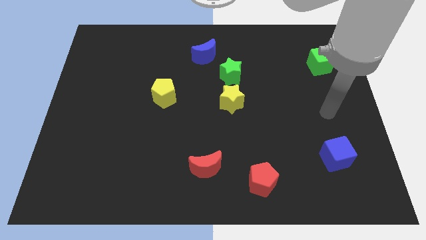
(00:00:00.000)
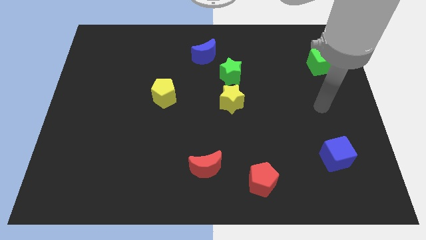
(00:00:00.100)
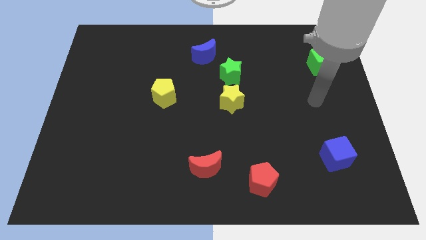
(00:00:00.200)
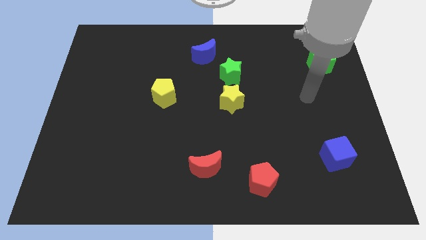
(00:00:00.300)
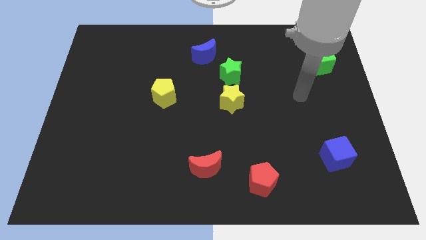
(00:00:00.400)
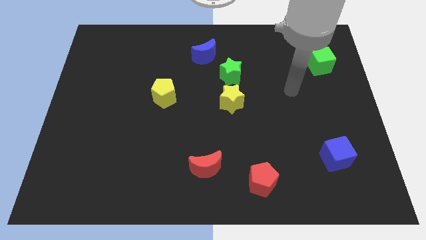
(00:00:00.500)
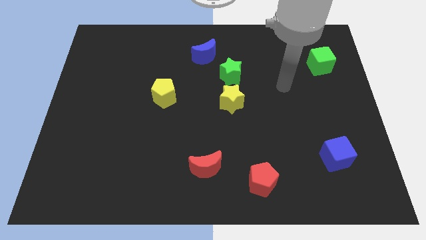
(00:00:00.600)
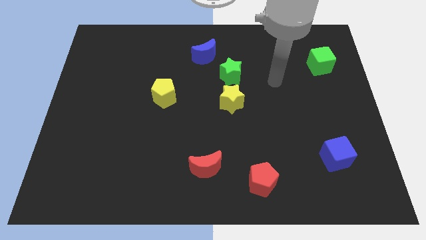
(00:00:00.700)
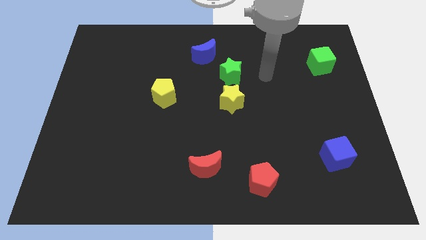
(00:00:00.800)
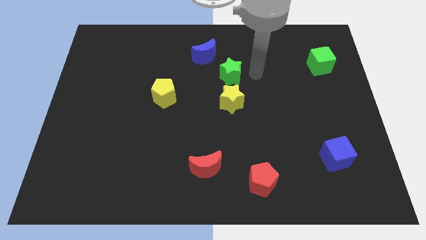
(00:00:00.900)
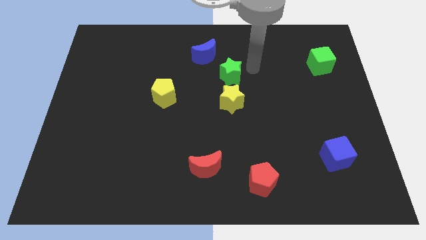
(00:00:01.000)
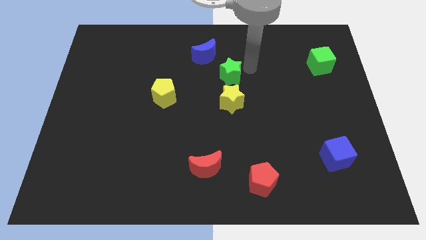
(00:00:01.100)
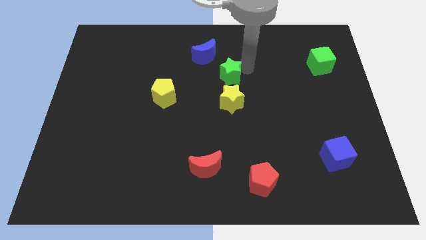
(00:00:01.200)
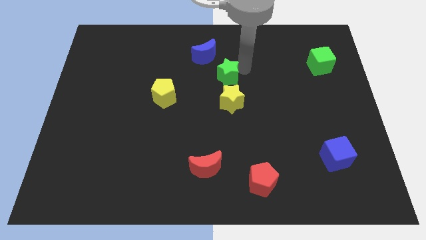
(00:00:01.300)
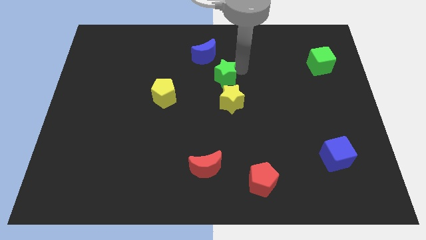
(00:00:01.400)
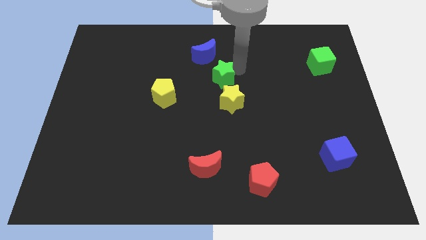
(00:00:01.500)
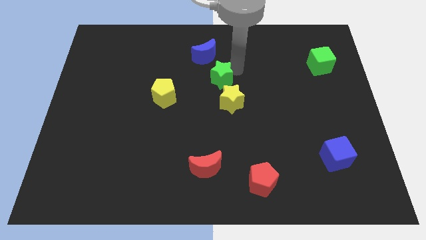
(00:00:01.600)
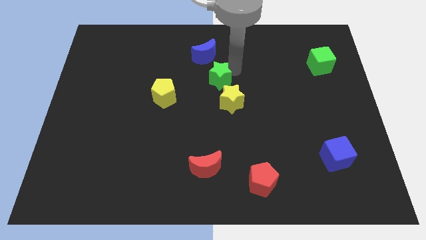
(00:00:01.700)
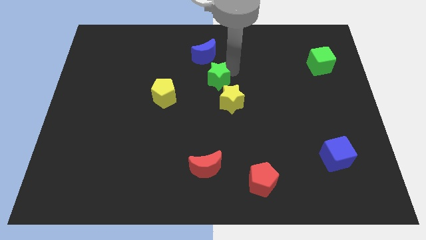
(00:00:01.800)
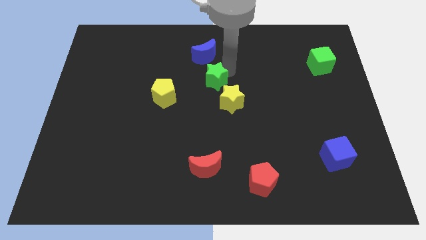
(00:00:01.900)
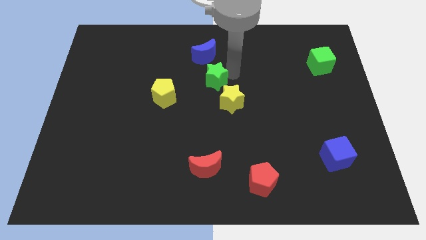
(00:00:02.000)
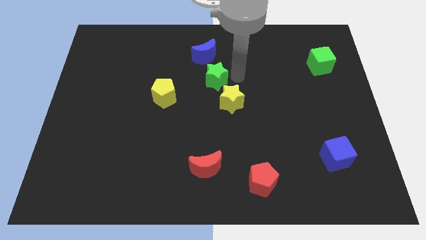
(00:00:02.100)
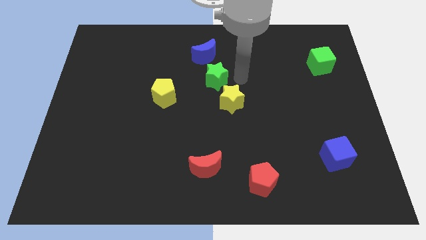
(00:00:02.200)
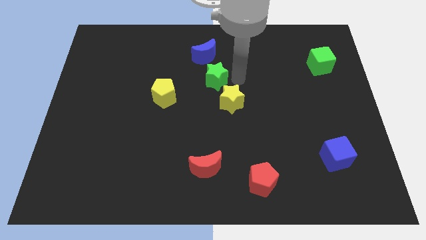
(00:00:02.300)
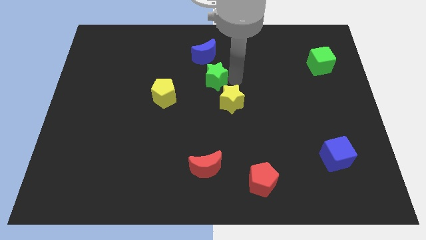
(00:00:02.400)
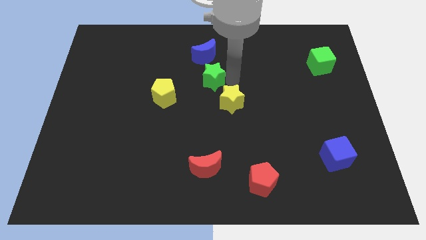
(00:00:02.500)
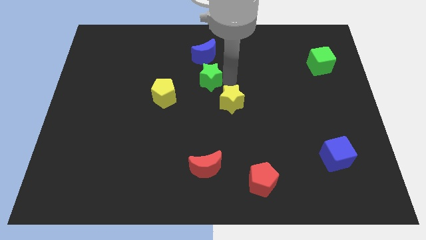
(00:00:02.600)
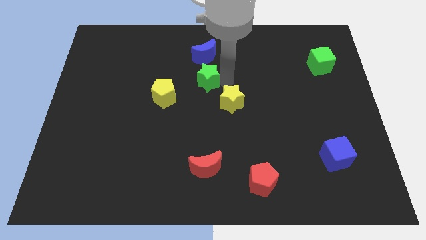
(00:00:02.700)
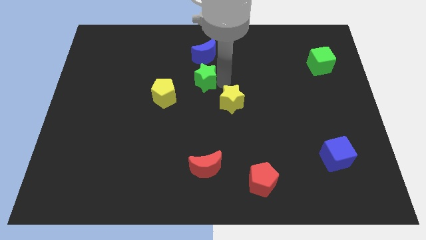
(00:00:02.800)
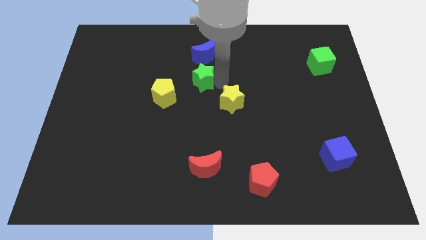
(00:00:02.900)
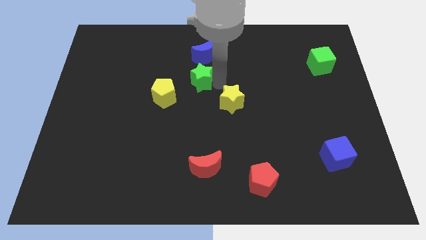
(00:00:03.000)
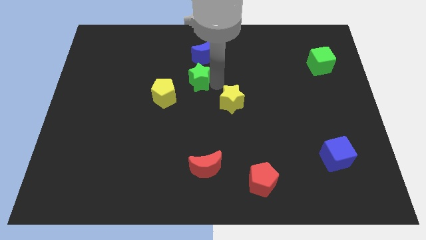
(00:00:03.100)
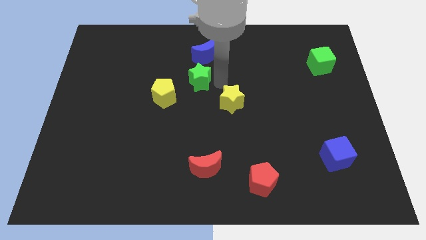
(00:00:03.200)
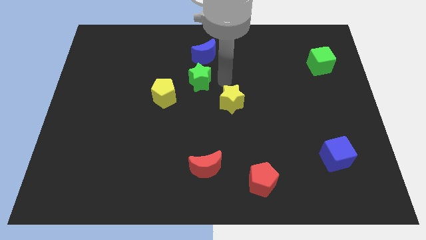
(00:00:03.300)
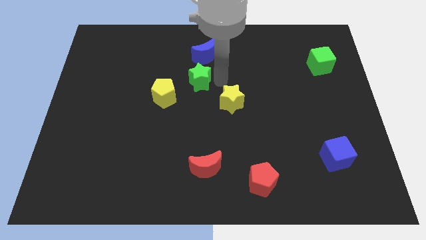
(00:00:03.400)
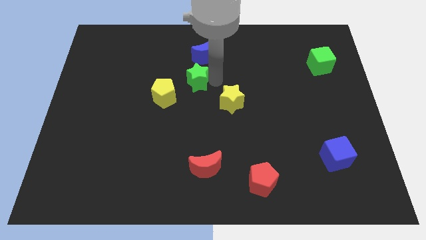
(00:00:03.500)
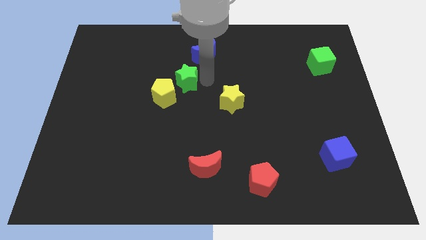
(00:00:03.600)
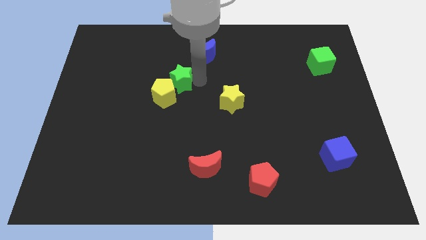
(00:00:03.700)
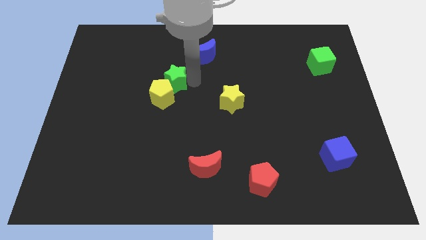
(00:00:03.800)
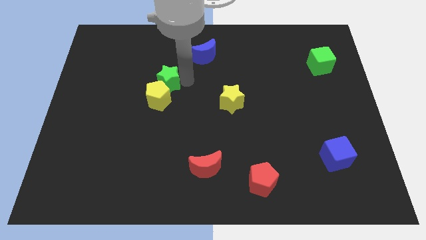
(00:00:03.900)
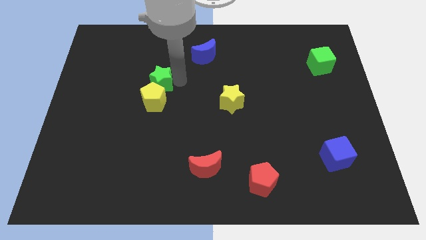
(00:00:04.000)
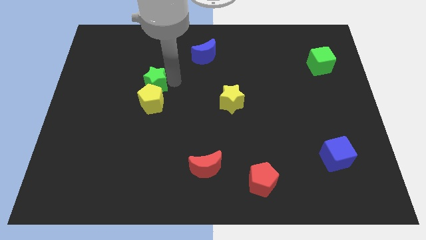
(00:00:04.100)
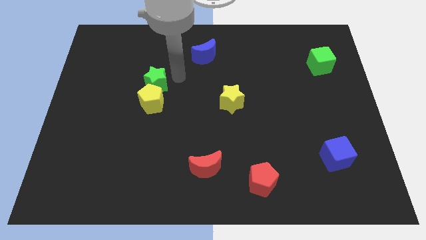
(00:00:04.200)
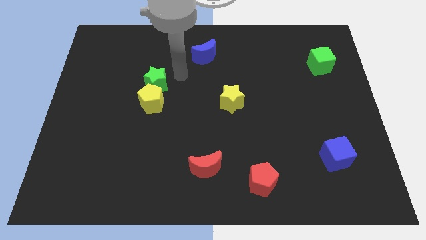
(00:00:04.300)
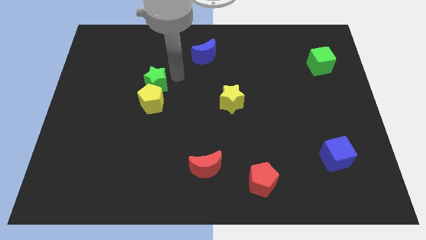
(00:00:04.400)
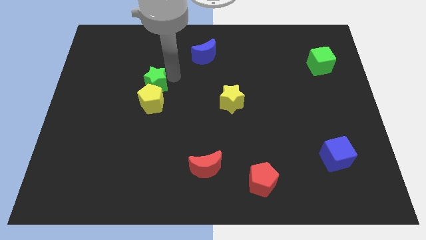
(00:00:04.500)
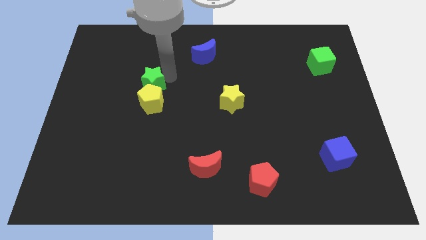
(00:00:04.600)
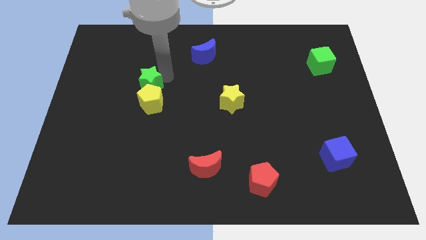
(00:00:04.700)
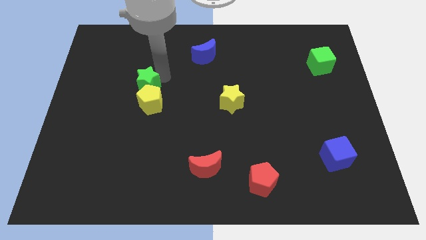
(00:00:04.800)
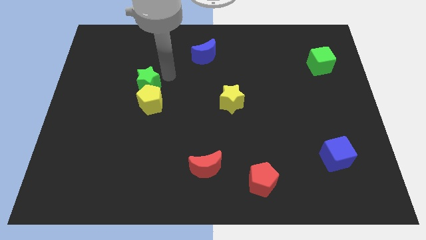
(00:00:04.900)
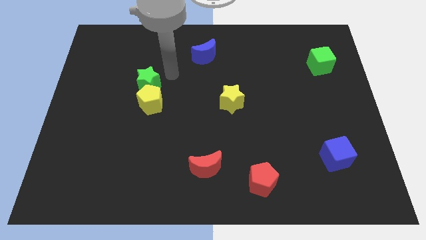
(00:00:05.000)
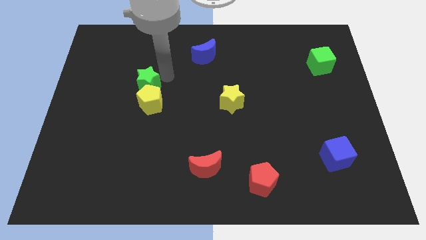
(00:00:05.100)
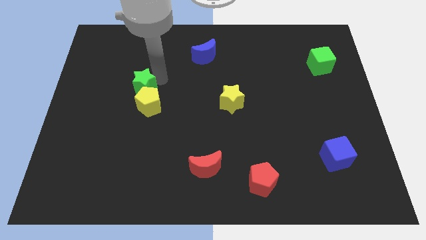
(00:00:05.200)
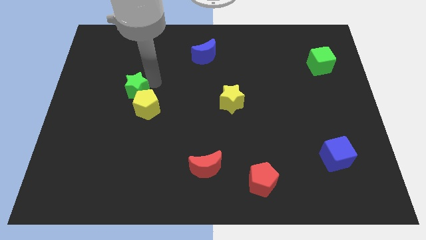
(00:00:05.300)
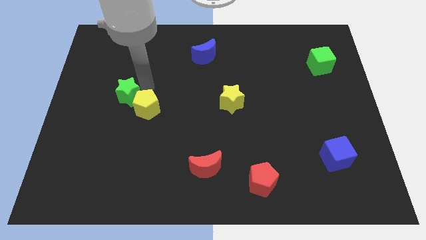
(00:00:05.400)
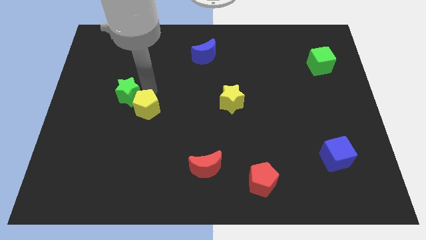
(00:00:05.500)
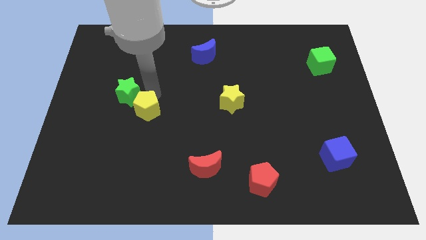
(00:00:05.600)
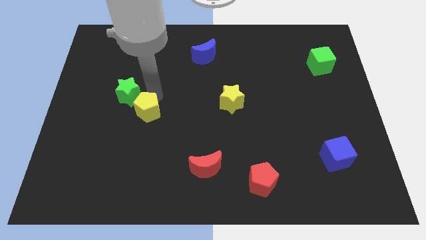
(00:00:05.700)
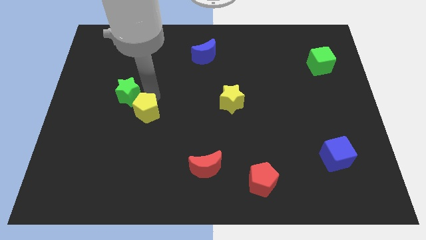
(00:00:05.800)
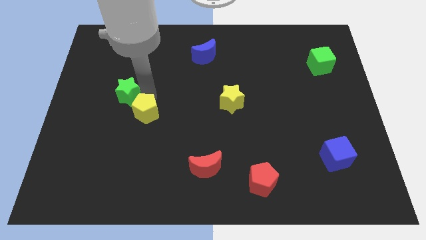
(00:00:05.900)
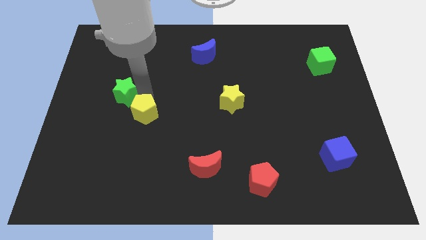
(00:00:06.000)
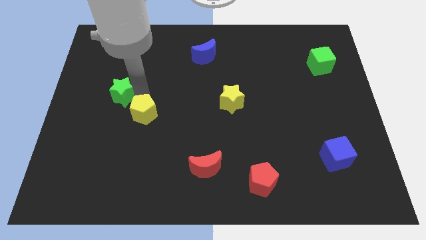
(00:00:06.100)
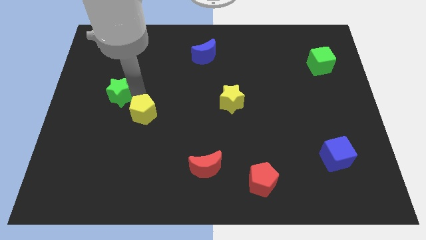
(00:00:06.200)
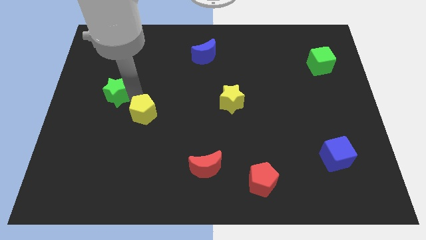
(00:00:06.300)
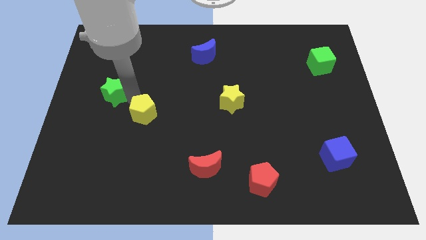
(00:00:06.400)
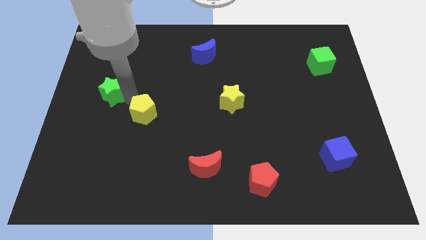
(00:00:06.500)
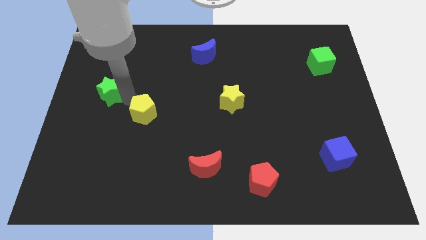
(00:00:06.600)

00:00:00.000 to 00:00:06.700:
push the green star to the left side of the board
